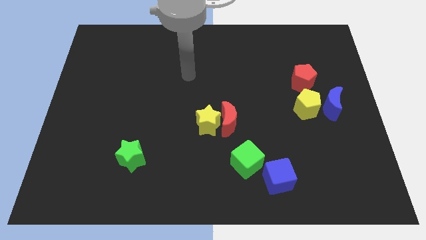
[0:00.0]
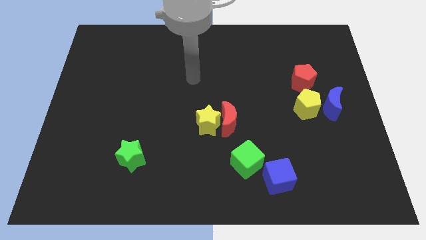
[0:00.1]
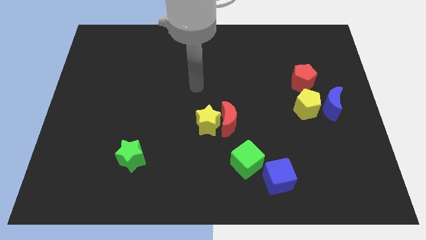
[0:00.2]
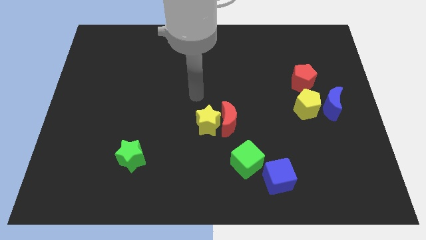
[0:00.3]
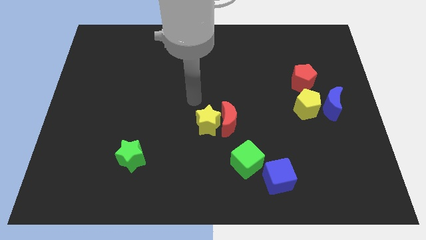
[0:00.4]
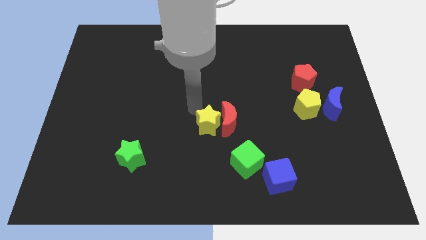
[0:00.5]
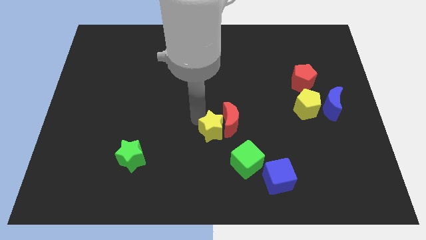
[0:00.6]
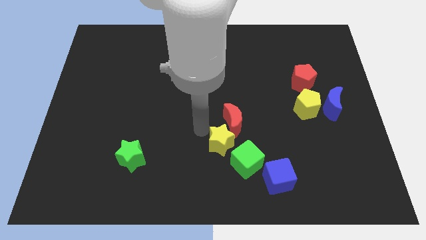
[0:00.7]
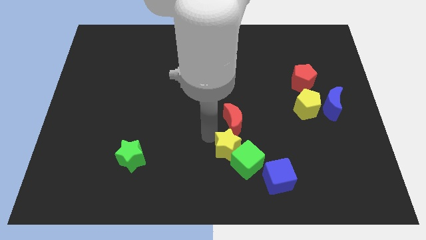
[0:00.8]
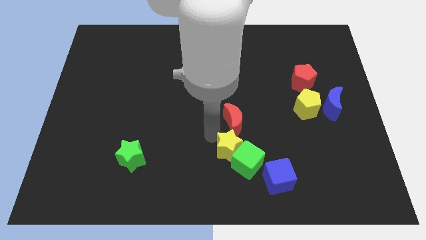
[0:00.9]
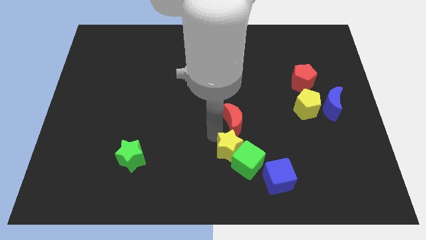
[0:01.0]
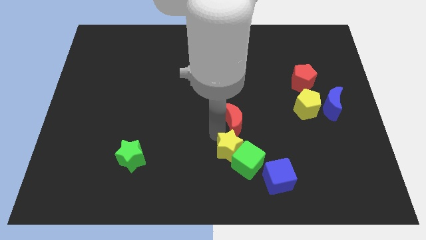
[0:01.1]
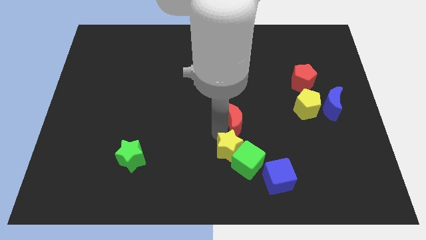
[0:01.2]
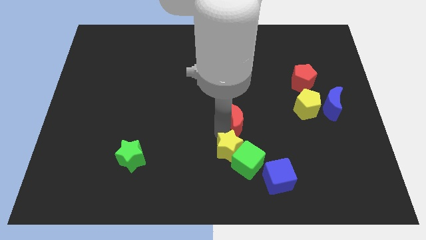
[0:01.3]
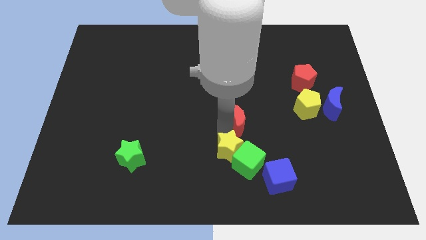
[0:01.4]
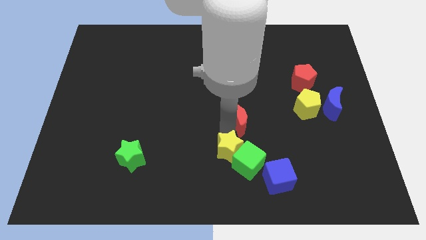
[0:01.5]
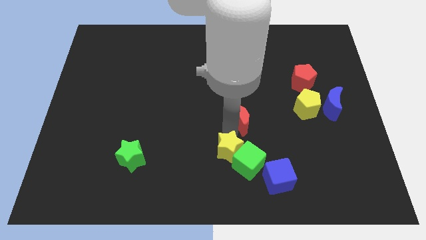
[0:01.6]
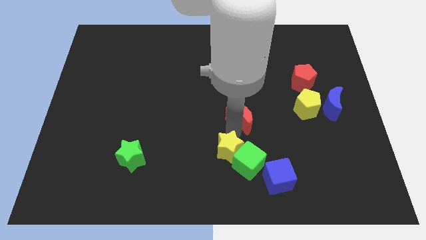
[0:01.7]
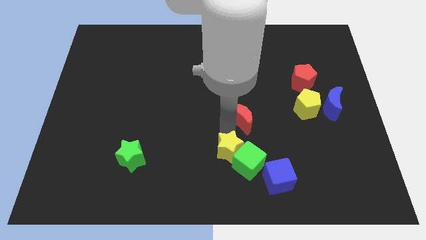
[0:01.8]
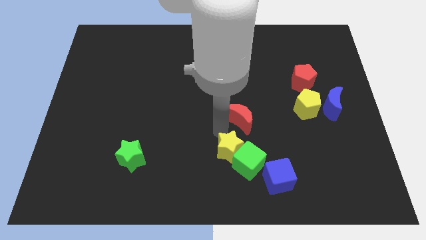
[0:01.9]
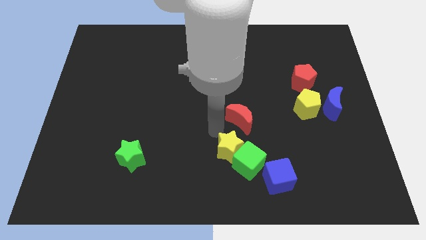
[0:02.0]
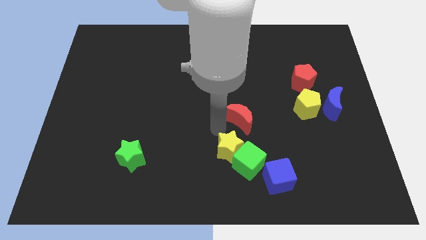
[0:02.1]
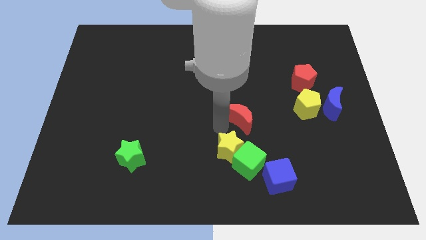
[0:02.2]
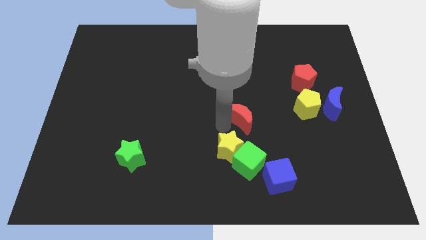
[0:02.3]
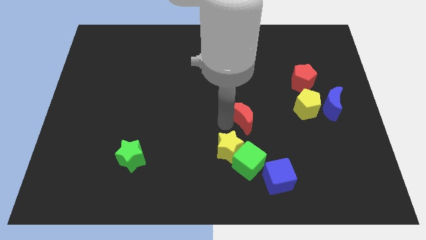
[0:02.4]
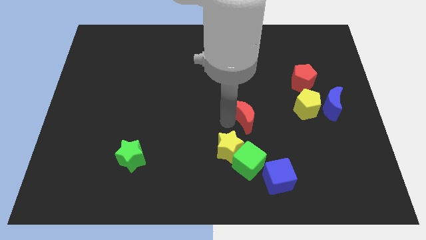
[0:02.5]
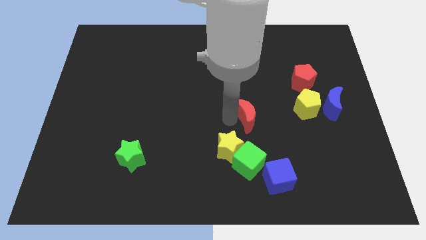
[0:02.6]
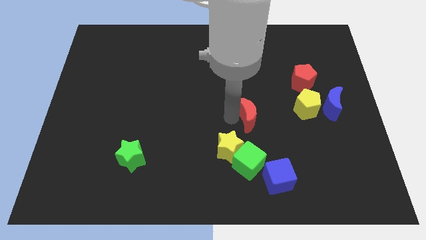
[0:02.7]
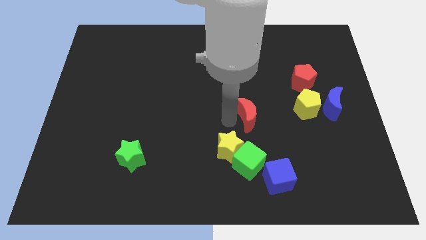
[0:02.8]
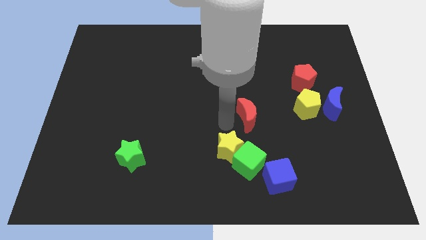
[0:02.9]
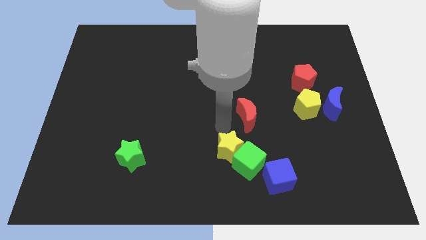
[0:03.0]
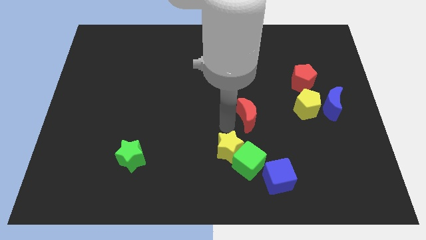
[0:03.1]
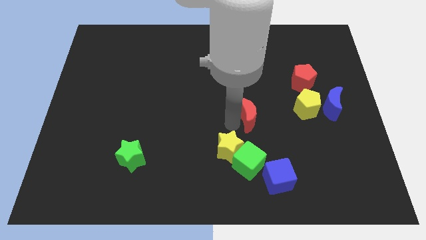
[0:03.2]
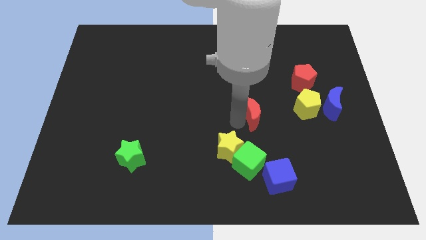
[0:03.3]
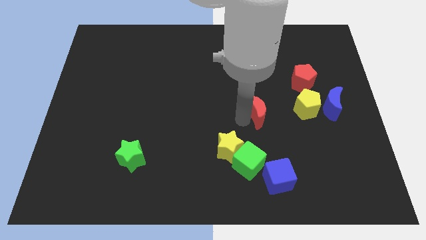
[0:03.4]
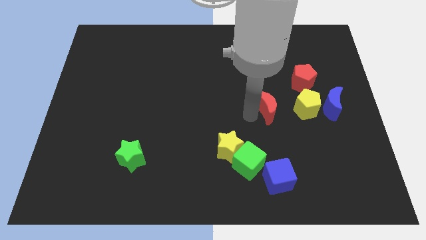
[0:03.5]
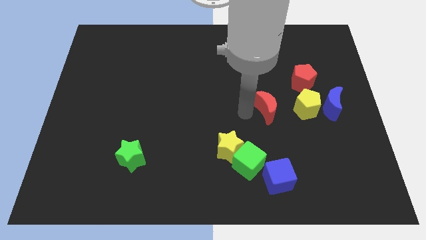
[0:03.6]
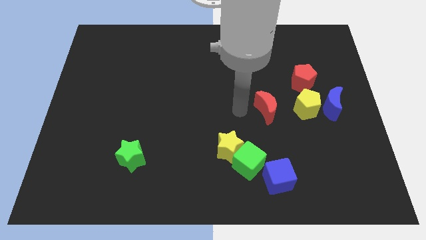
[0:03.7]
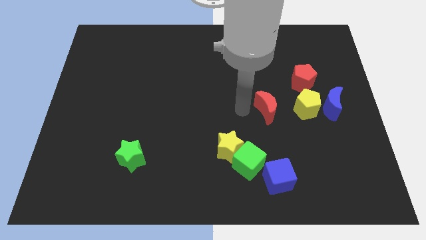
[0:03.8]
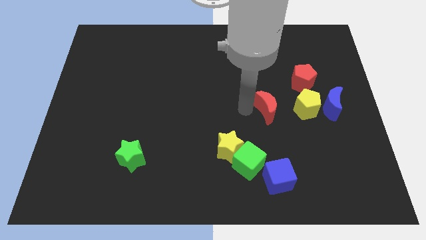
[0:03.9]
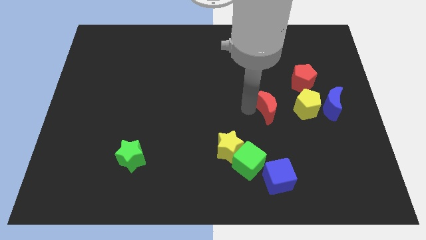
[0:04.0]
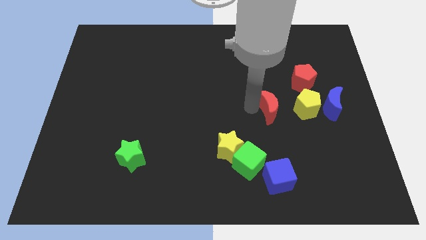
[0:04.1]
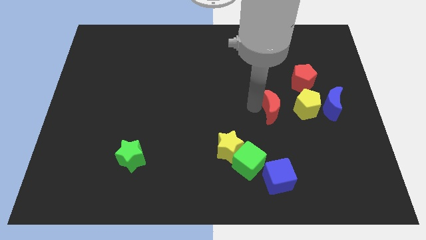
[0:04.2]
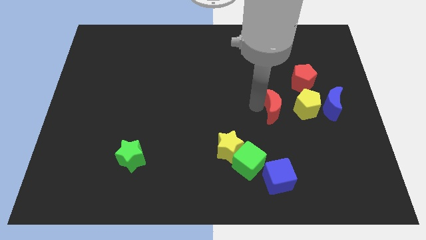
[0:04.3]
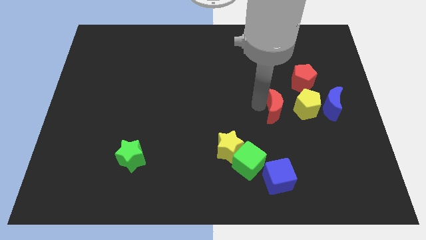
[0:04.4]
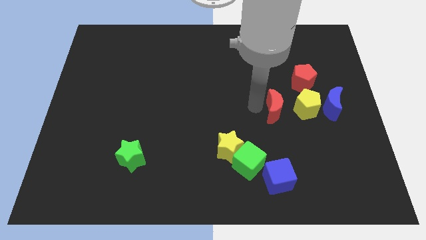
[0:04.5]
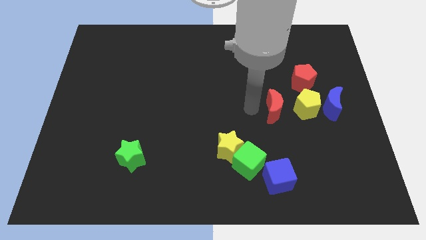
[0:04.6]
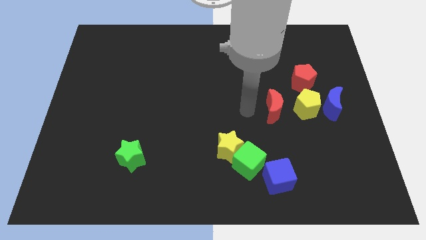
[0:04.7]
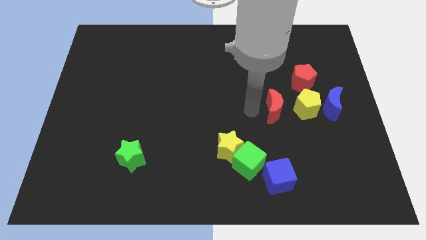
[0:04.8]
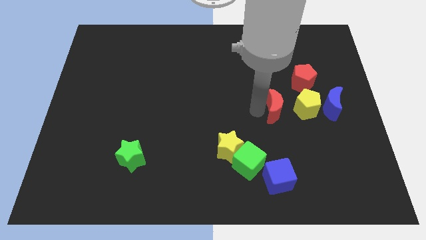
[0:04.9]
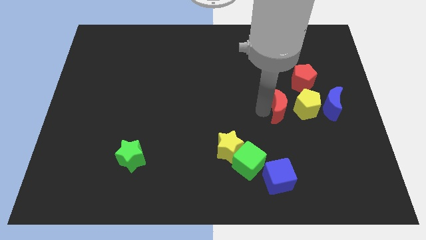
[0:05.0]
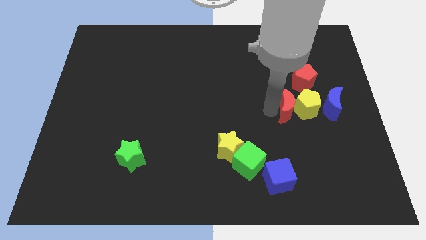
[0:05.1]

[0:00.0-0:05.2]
move the red moon to the yellow pentagon

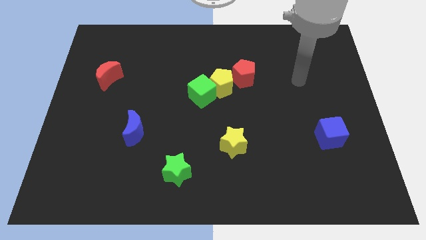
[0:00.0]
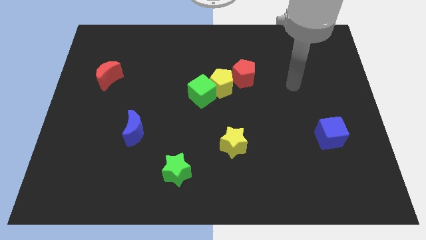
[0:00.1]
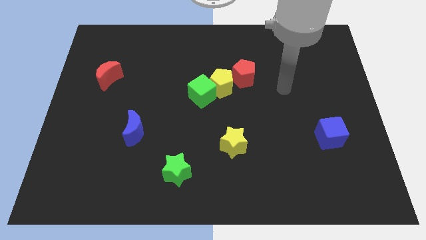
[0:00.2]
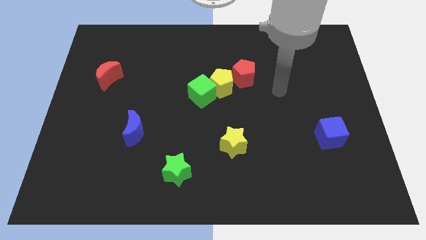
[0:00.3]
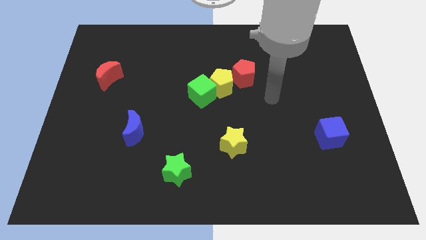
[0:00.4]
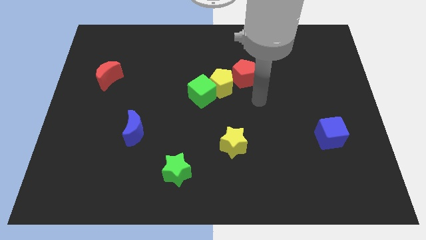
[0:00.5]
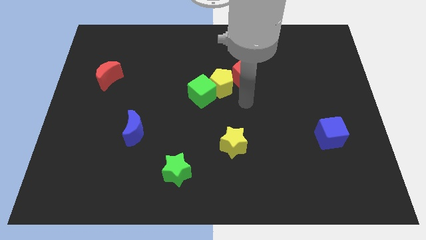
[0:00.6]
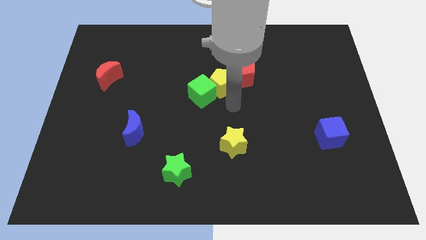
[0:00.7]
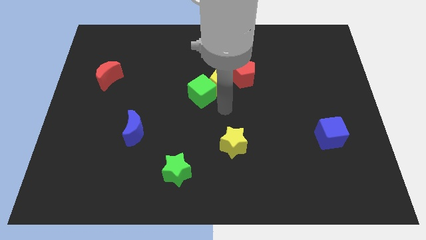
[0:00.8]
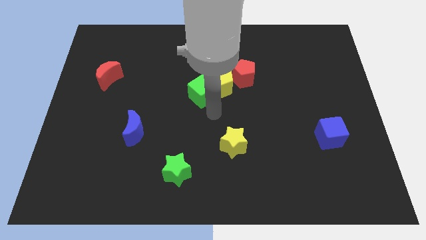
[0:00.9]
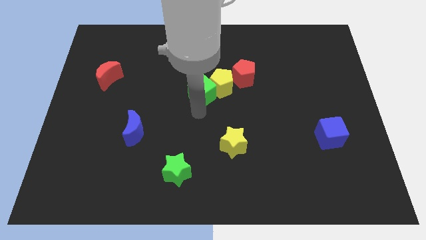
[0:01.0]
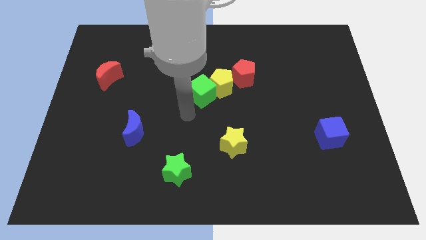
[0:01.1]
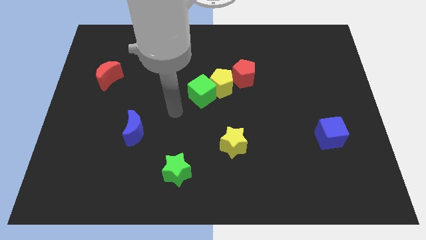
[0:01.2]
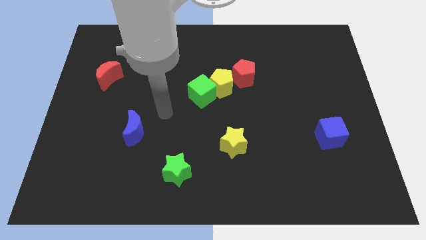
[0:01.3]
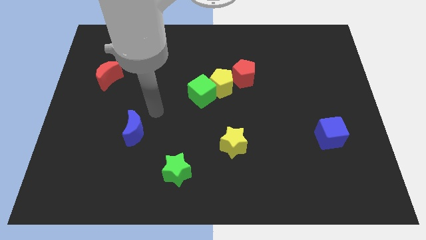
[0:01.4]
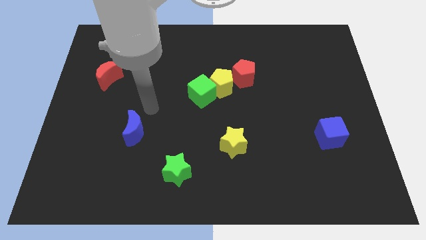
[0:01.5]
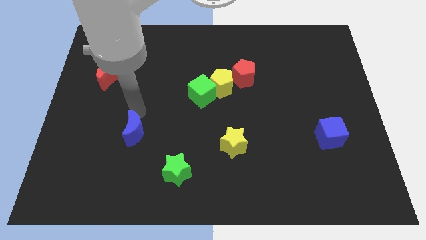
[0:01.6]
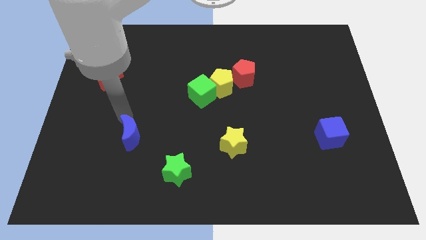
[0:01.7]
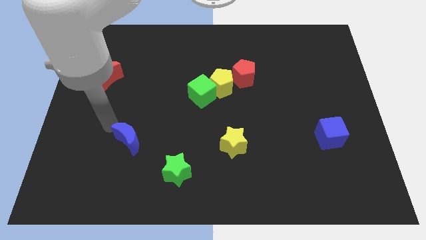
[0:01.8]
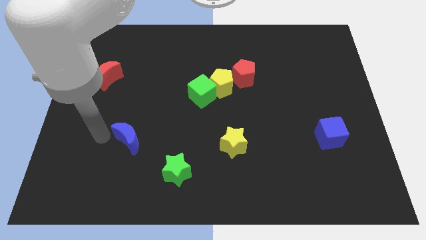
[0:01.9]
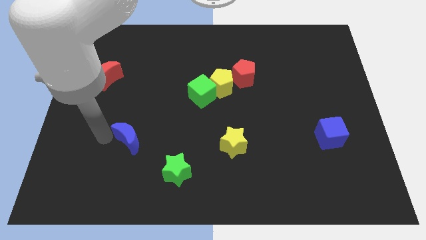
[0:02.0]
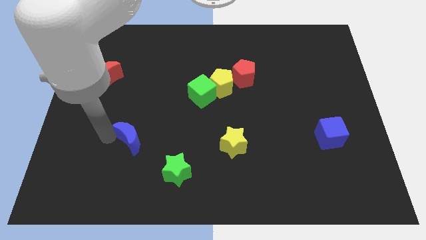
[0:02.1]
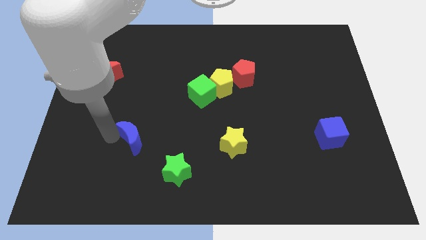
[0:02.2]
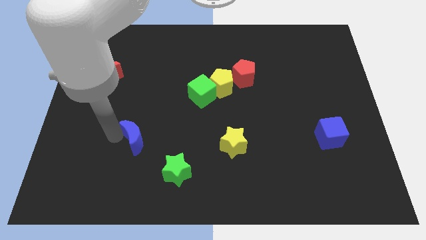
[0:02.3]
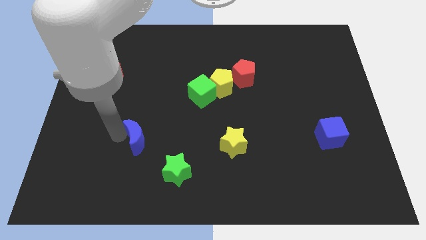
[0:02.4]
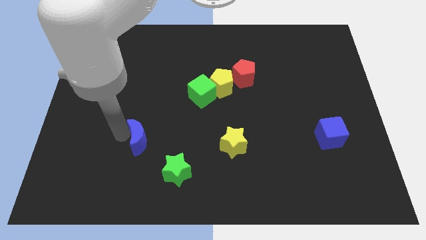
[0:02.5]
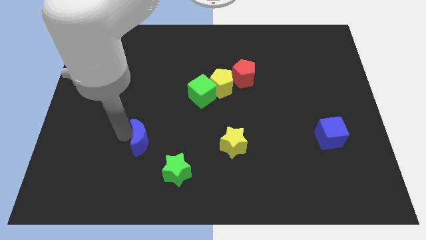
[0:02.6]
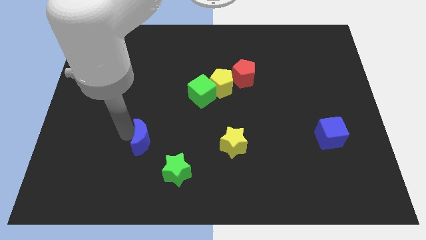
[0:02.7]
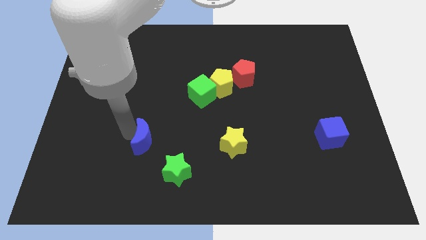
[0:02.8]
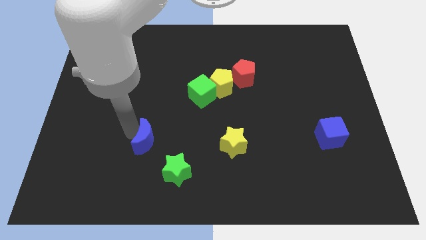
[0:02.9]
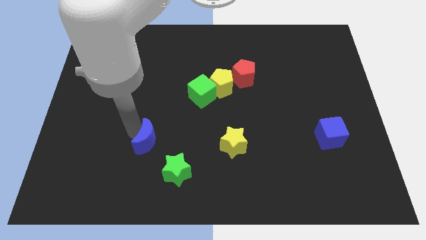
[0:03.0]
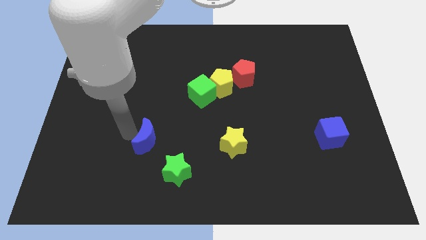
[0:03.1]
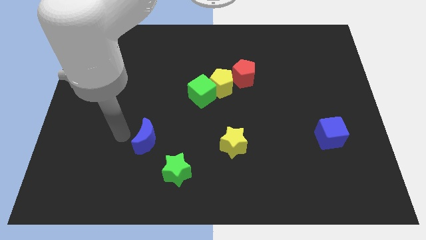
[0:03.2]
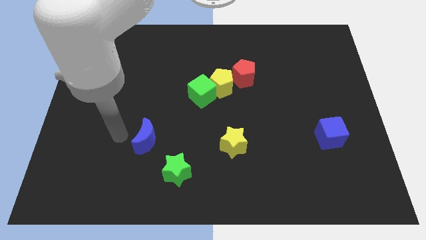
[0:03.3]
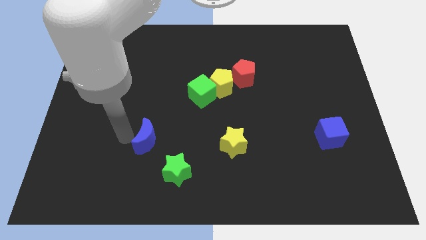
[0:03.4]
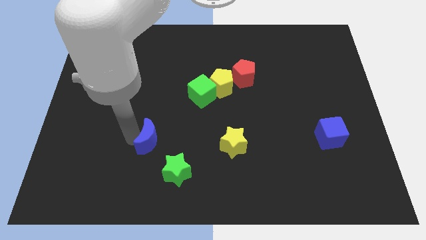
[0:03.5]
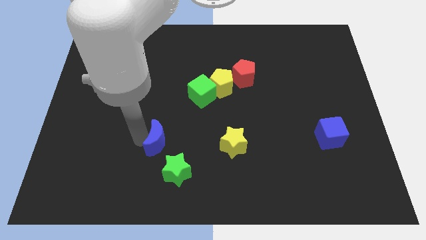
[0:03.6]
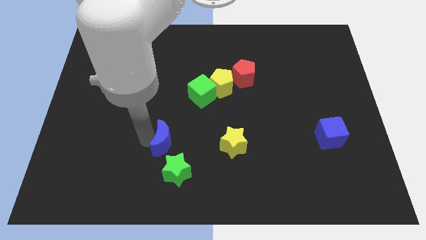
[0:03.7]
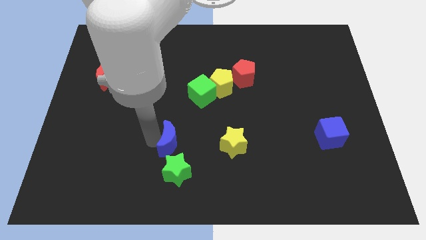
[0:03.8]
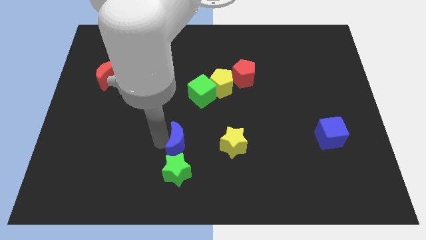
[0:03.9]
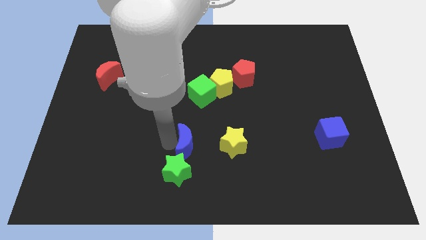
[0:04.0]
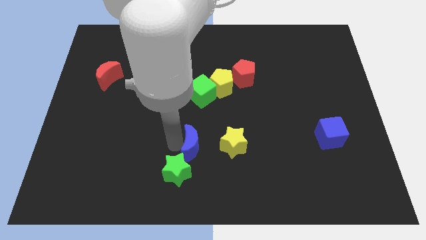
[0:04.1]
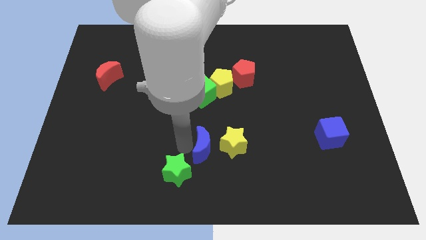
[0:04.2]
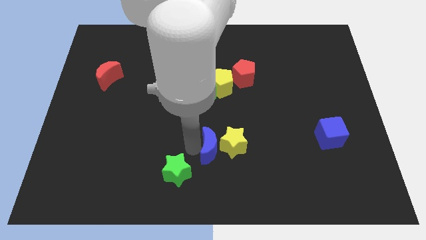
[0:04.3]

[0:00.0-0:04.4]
slide the blue moon to the yellow star
